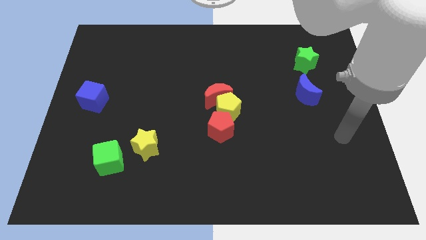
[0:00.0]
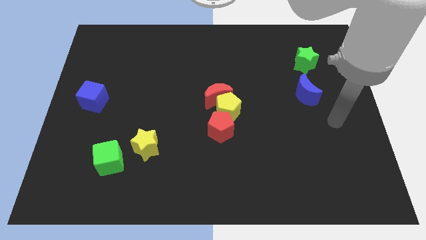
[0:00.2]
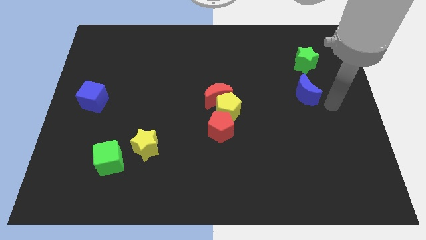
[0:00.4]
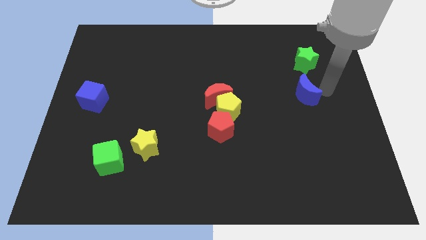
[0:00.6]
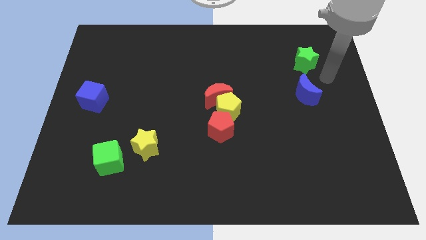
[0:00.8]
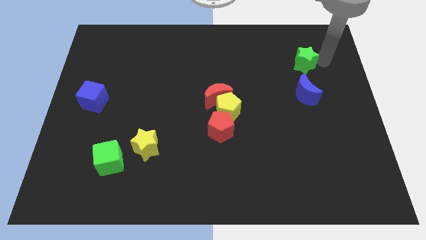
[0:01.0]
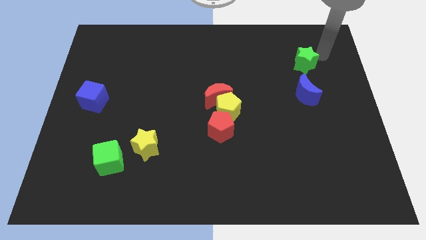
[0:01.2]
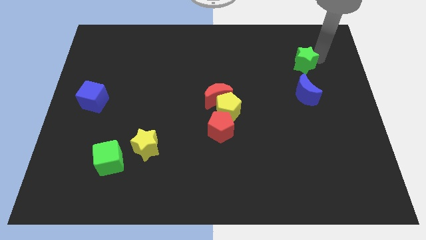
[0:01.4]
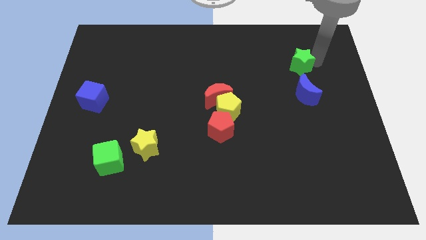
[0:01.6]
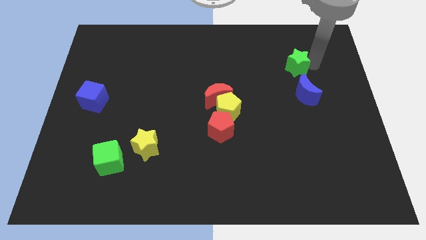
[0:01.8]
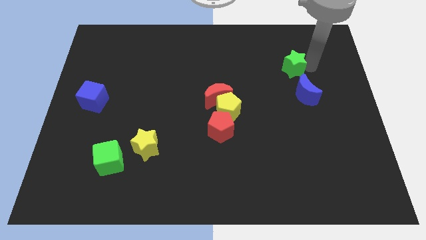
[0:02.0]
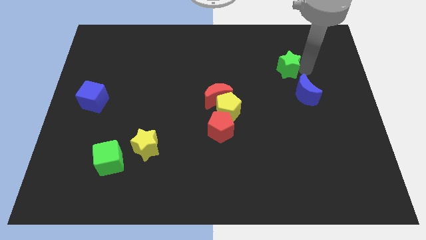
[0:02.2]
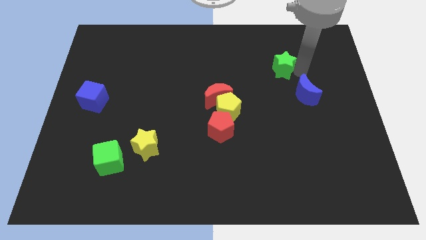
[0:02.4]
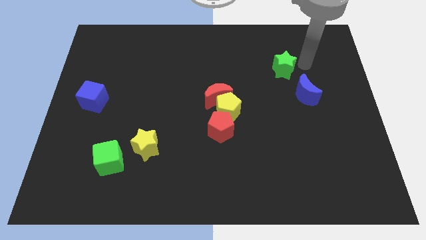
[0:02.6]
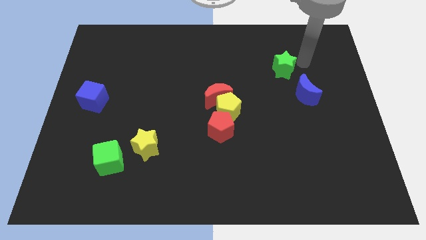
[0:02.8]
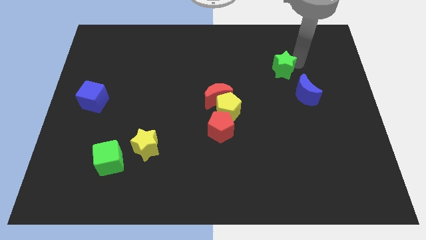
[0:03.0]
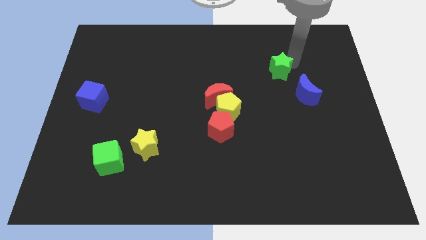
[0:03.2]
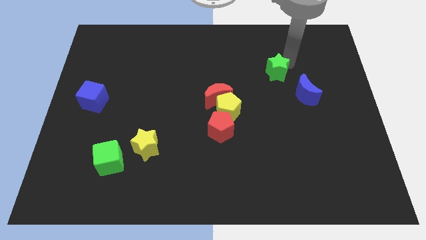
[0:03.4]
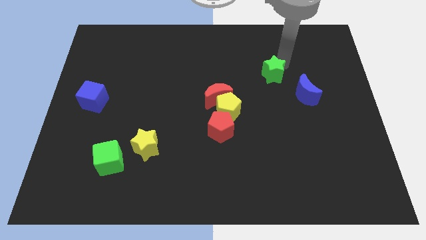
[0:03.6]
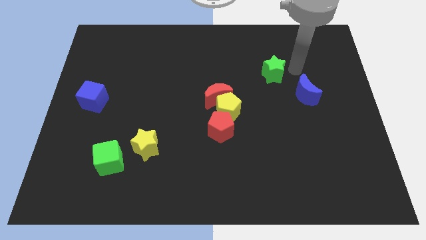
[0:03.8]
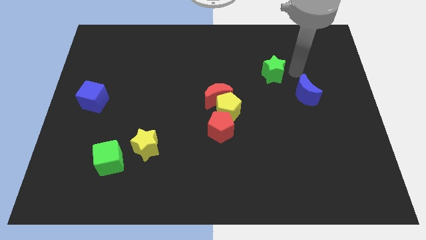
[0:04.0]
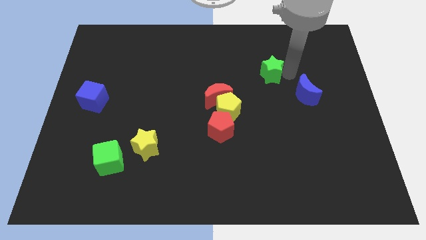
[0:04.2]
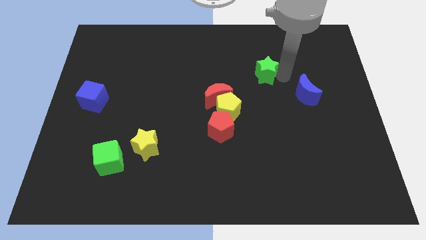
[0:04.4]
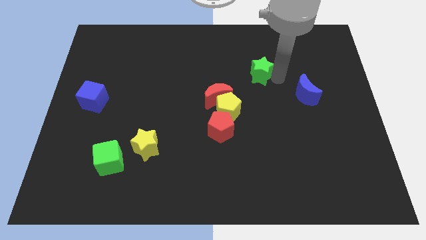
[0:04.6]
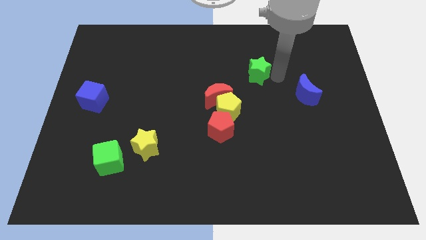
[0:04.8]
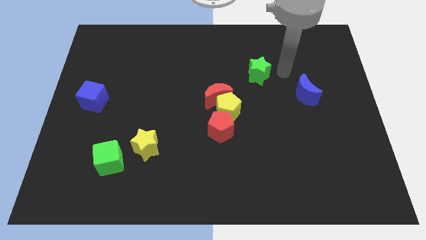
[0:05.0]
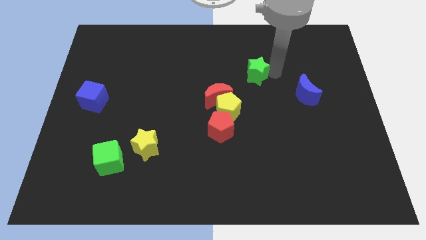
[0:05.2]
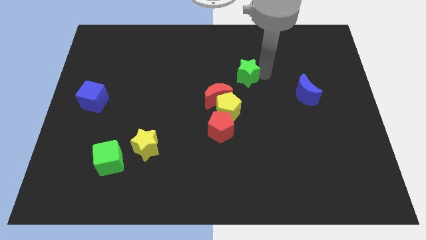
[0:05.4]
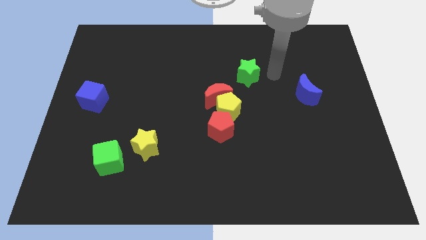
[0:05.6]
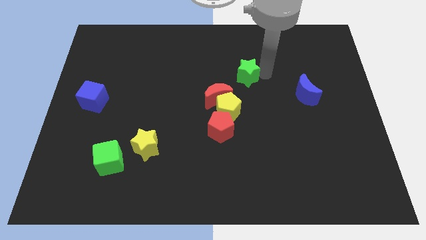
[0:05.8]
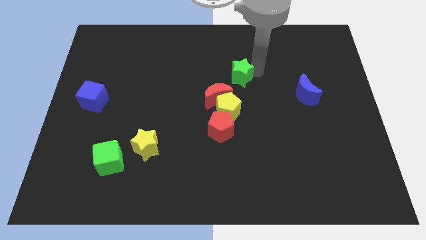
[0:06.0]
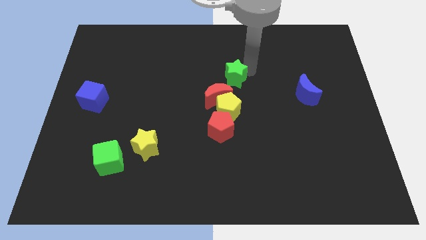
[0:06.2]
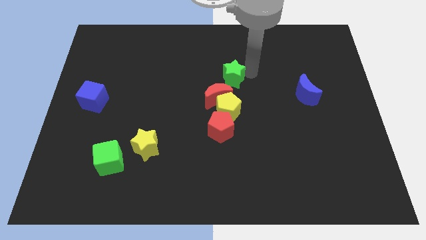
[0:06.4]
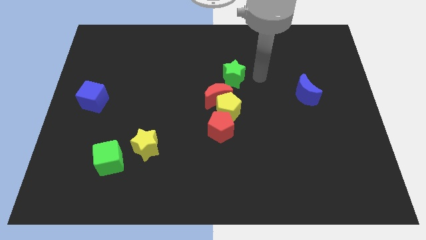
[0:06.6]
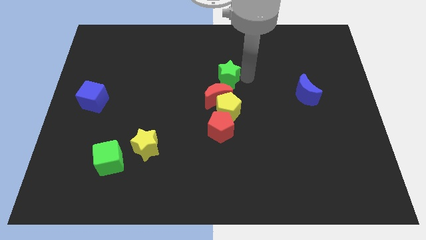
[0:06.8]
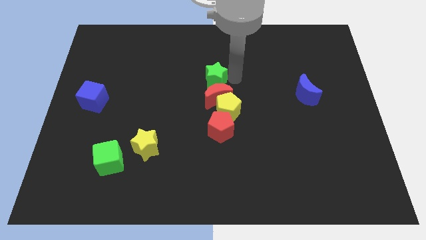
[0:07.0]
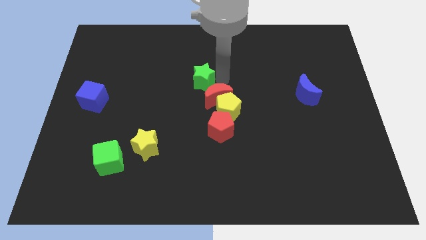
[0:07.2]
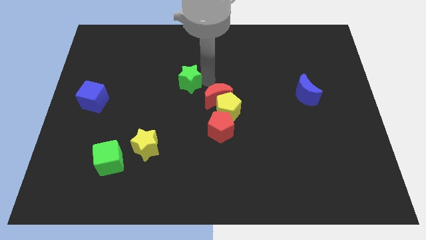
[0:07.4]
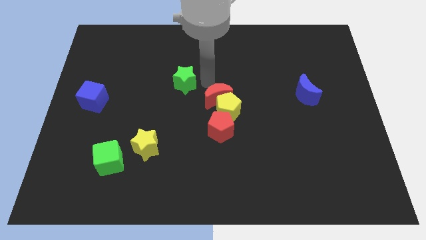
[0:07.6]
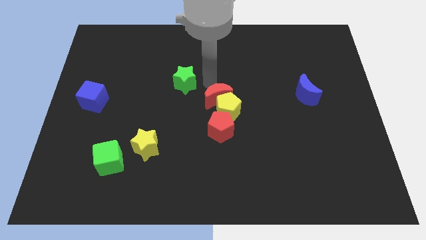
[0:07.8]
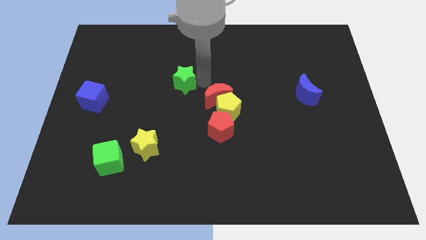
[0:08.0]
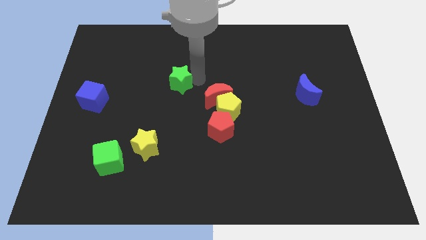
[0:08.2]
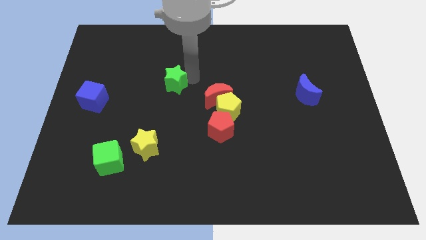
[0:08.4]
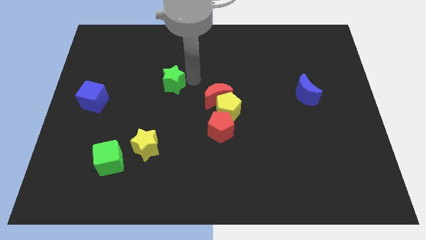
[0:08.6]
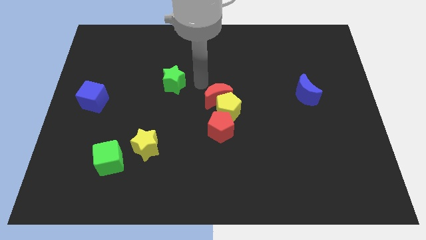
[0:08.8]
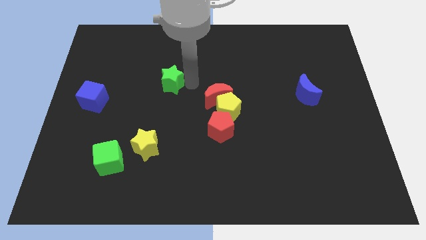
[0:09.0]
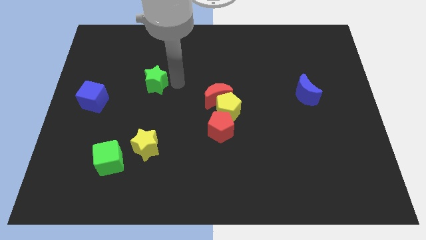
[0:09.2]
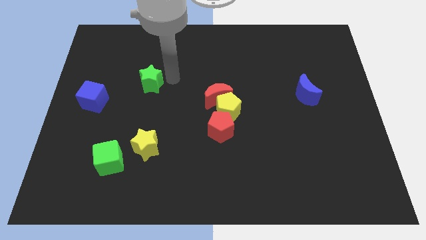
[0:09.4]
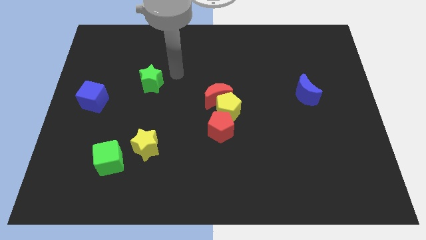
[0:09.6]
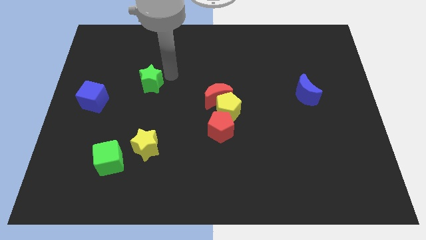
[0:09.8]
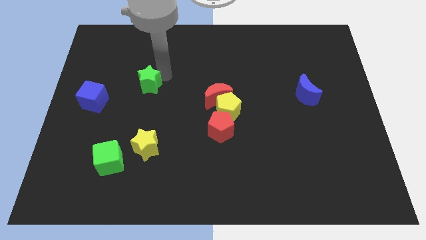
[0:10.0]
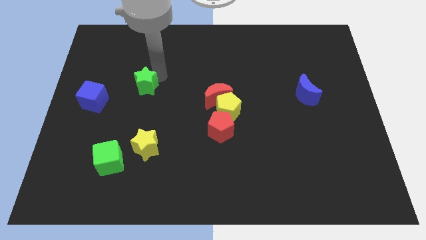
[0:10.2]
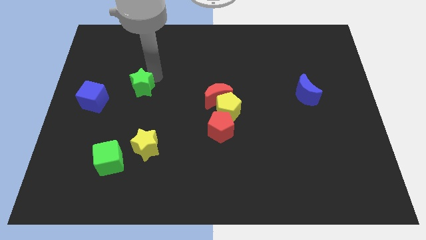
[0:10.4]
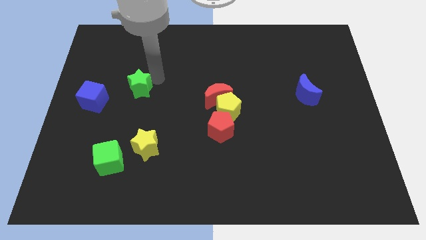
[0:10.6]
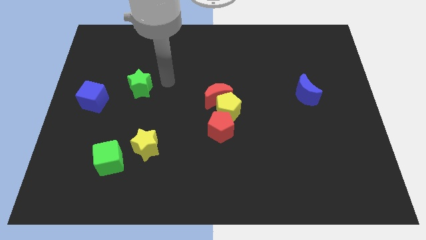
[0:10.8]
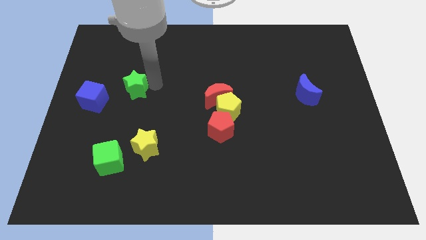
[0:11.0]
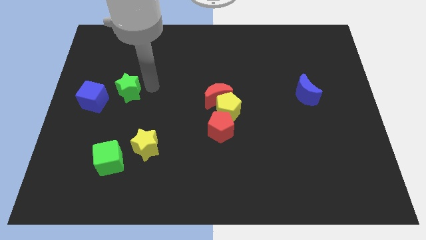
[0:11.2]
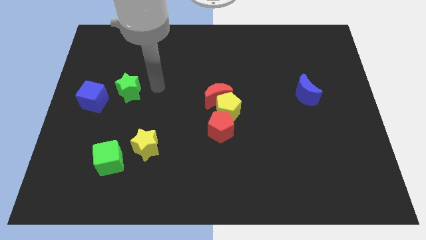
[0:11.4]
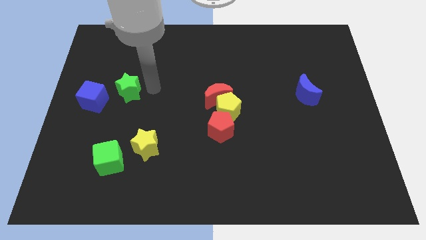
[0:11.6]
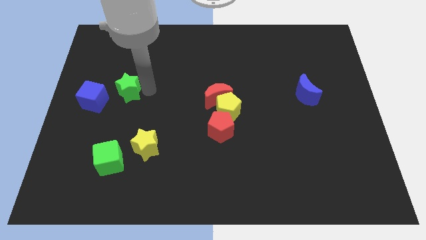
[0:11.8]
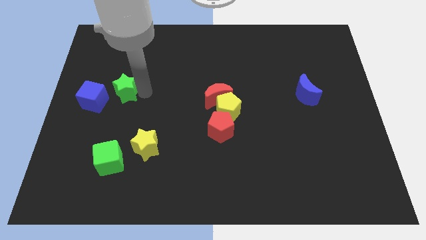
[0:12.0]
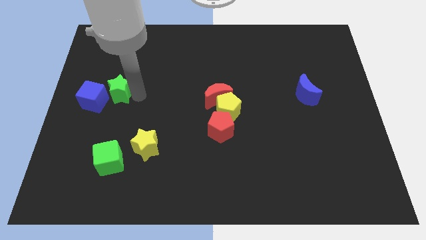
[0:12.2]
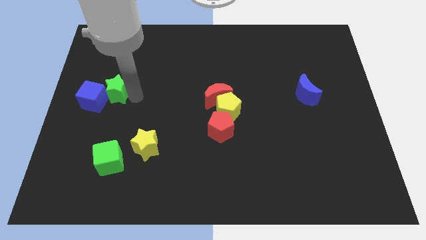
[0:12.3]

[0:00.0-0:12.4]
move the green star next to the blue cube

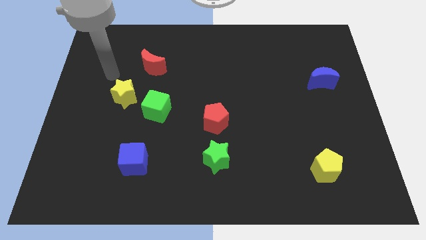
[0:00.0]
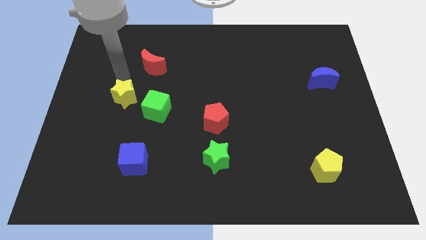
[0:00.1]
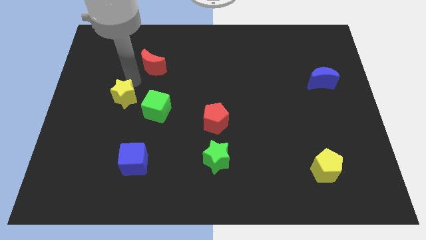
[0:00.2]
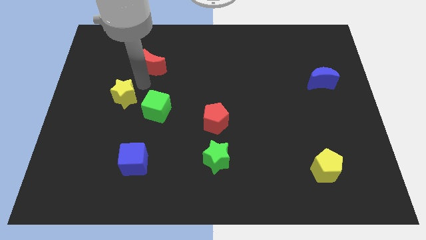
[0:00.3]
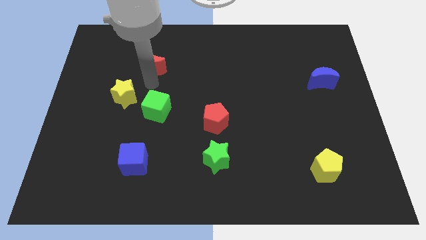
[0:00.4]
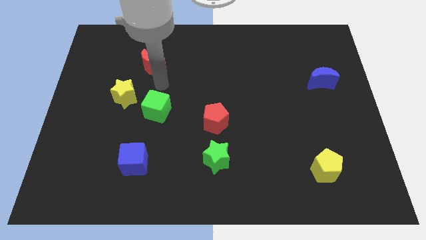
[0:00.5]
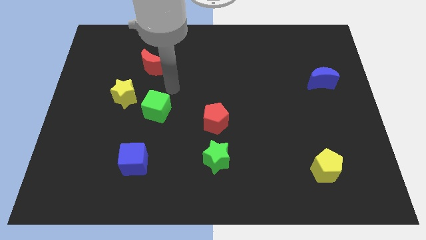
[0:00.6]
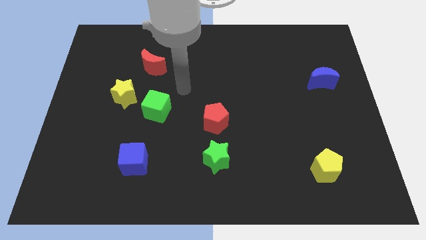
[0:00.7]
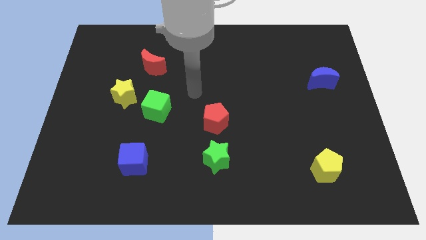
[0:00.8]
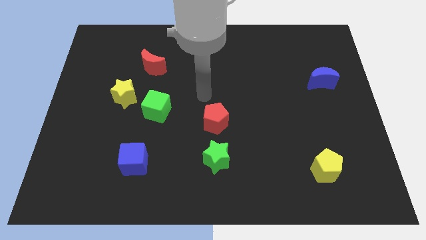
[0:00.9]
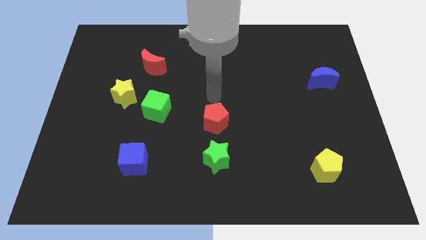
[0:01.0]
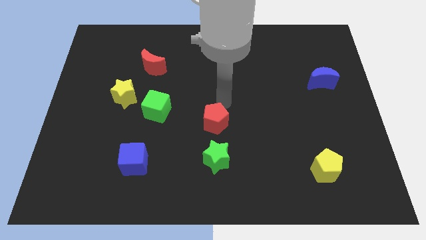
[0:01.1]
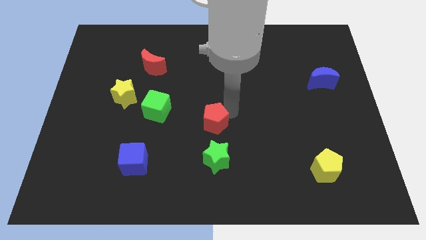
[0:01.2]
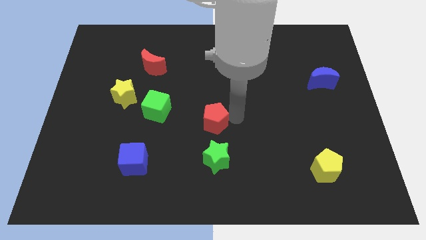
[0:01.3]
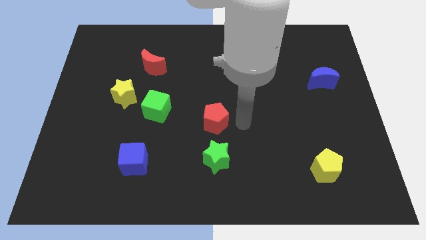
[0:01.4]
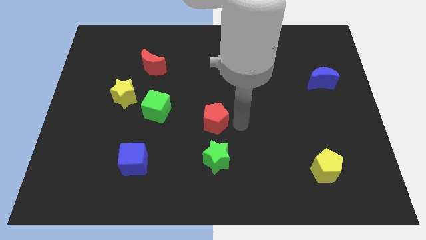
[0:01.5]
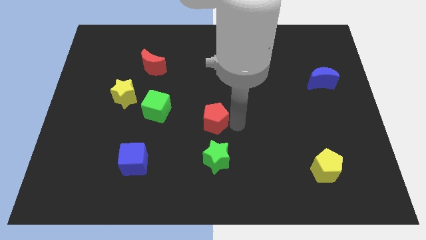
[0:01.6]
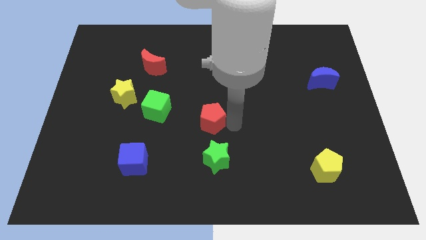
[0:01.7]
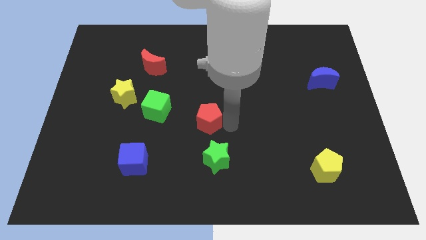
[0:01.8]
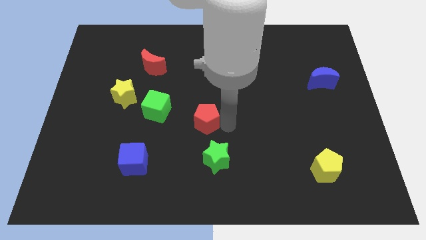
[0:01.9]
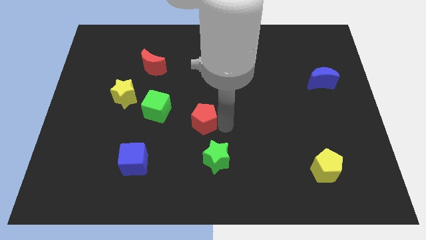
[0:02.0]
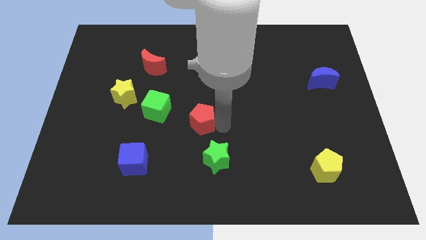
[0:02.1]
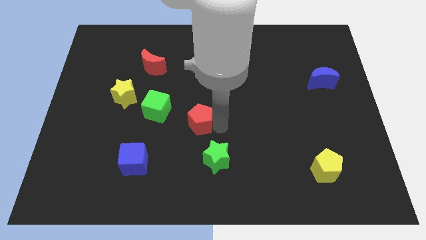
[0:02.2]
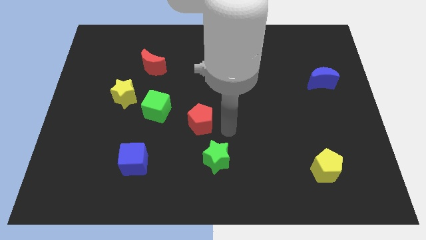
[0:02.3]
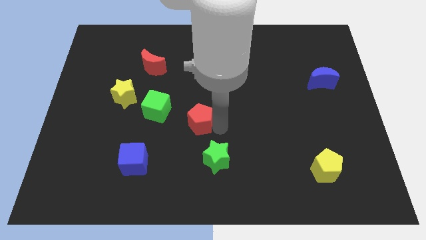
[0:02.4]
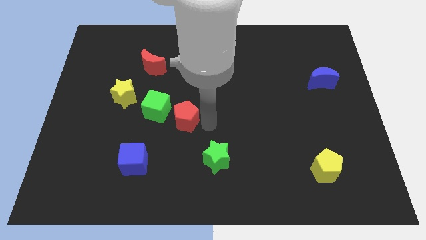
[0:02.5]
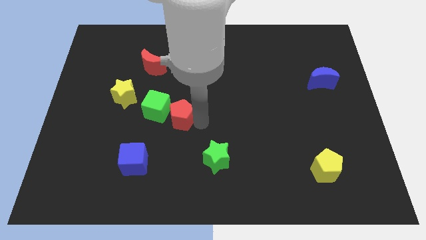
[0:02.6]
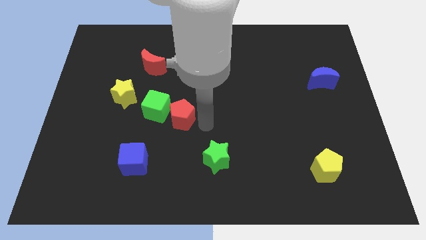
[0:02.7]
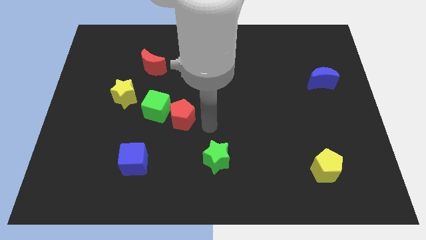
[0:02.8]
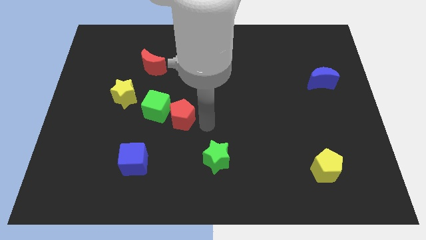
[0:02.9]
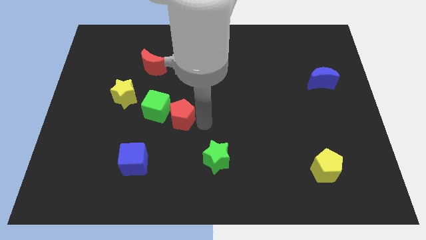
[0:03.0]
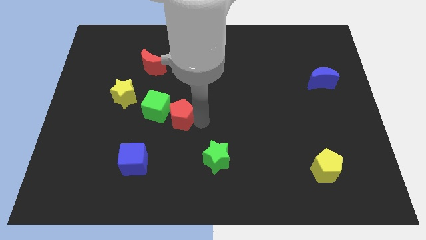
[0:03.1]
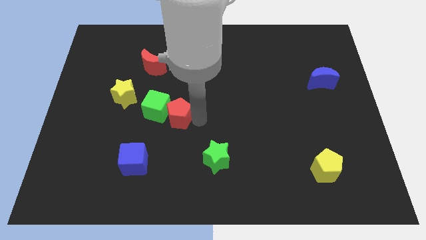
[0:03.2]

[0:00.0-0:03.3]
slide the red pentagon close to the green cube
